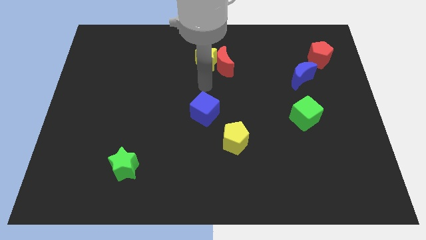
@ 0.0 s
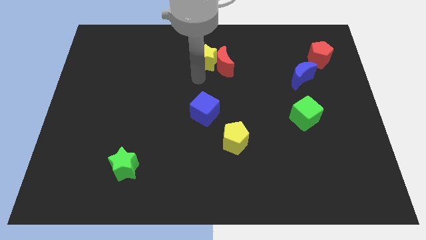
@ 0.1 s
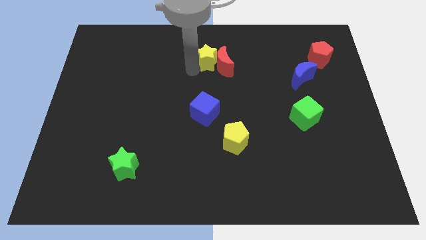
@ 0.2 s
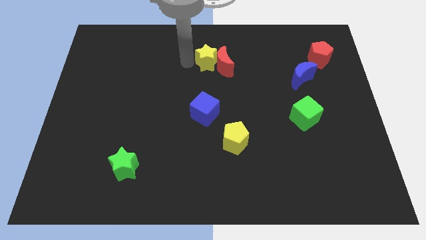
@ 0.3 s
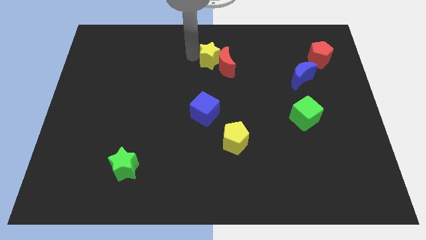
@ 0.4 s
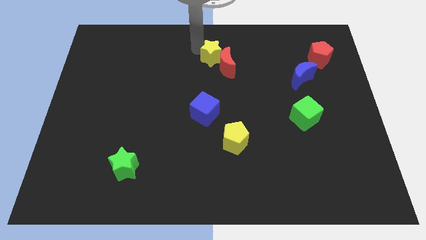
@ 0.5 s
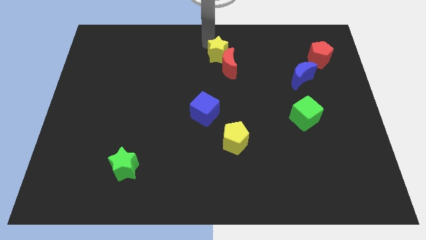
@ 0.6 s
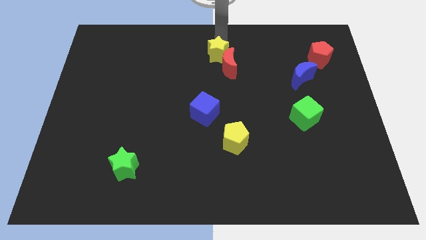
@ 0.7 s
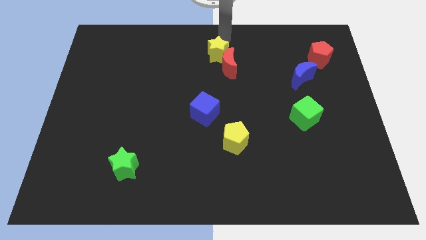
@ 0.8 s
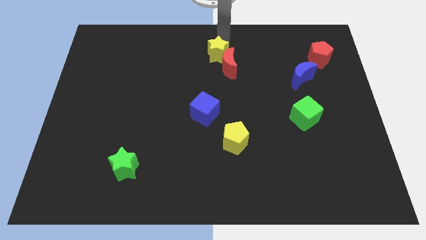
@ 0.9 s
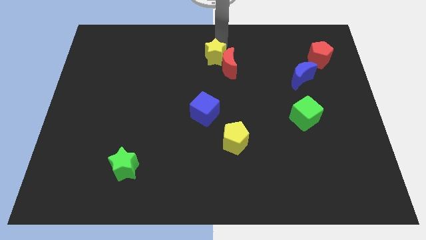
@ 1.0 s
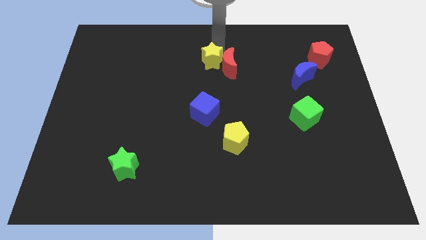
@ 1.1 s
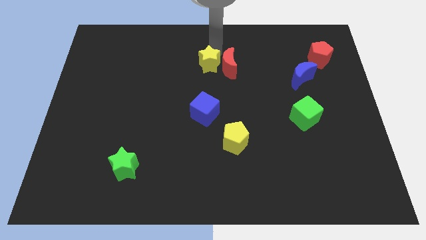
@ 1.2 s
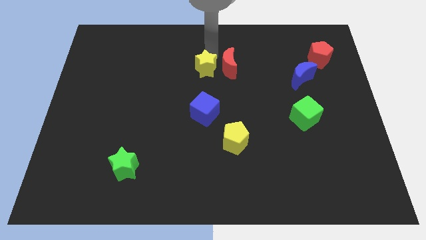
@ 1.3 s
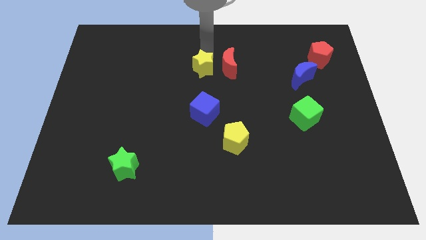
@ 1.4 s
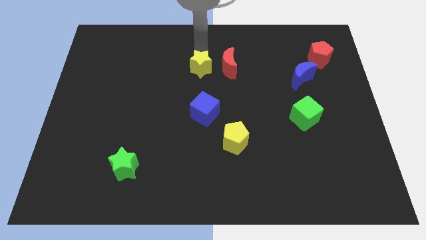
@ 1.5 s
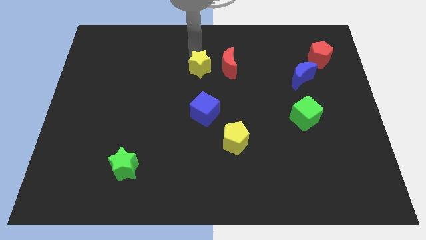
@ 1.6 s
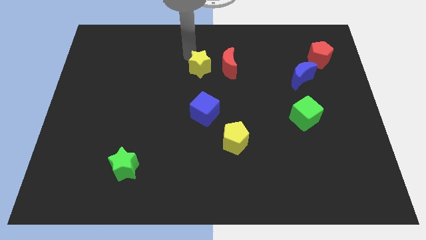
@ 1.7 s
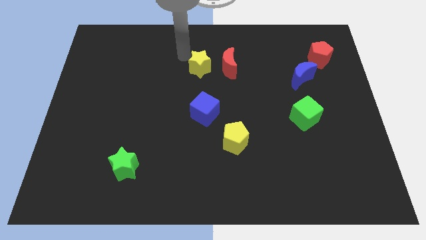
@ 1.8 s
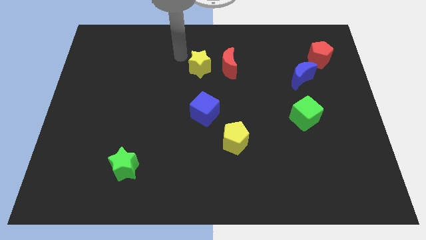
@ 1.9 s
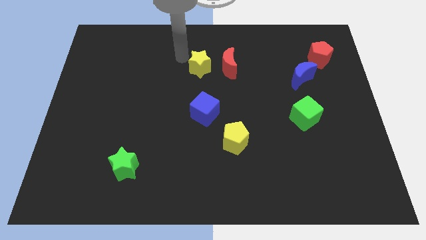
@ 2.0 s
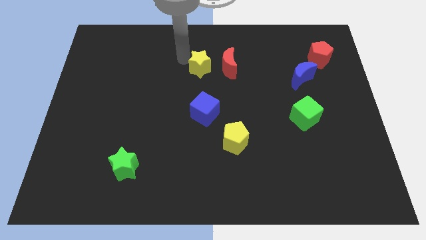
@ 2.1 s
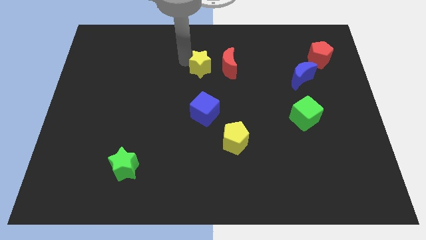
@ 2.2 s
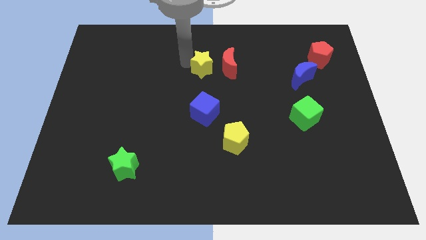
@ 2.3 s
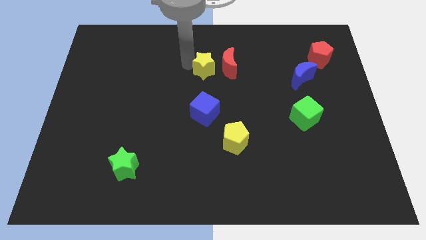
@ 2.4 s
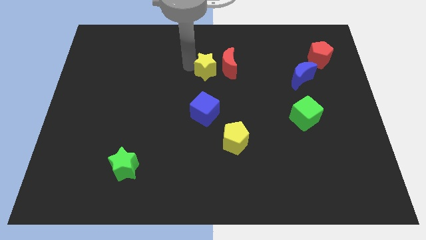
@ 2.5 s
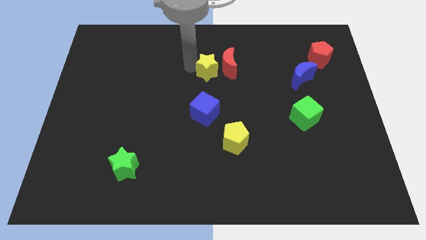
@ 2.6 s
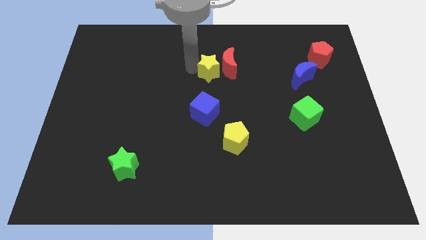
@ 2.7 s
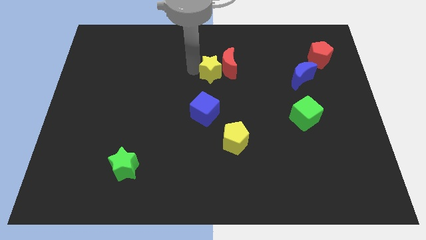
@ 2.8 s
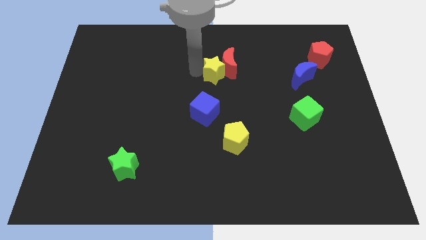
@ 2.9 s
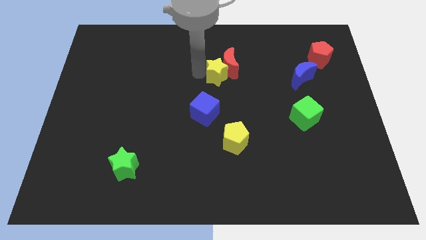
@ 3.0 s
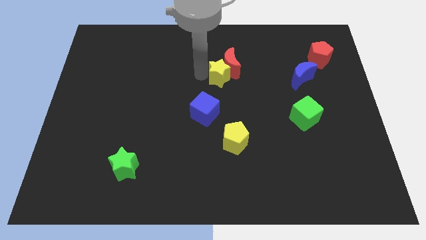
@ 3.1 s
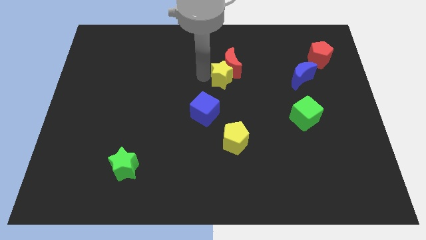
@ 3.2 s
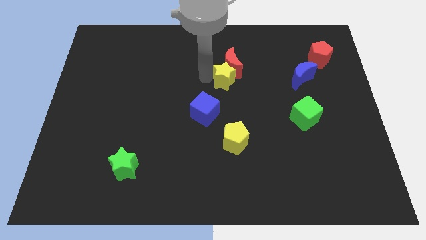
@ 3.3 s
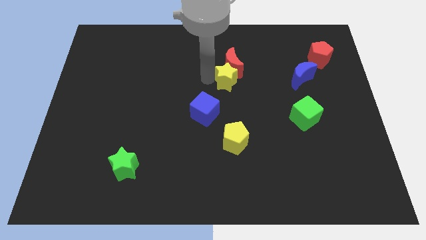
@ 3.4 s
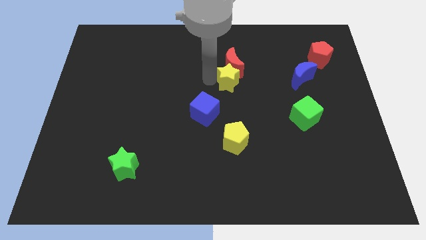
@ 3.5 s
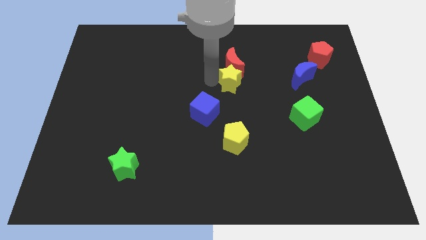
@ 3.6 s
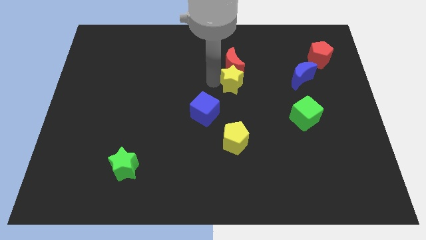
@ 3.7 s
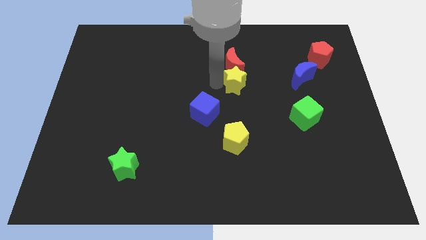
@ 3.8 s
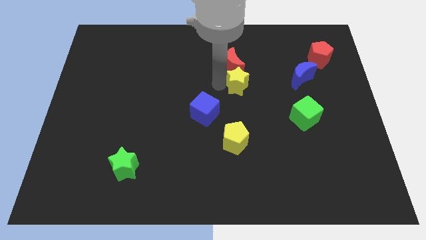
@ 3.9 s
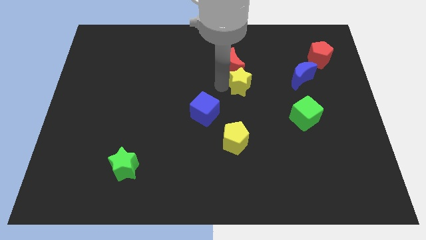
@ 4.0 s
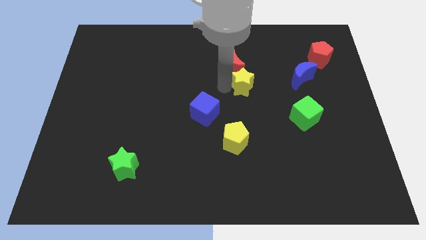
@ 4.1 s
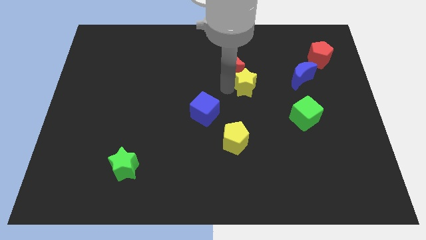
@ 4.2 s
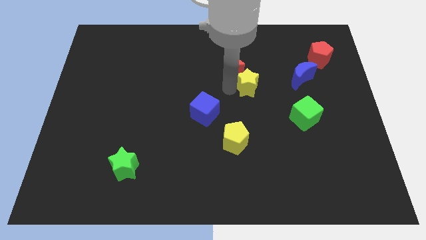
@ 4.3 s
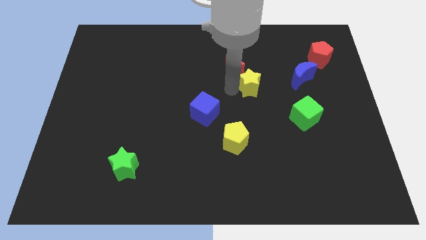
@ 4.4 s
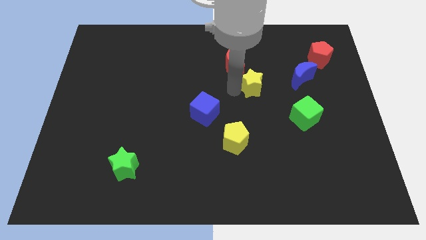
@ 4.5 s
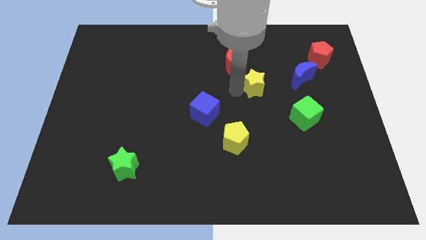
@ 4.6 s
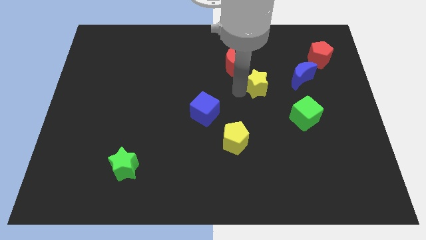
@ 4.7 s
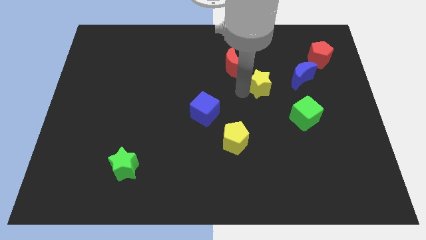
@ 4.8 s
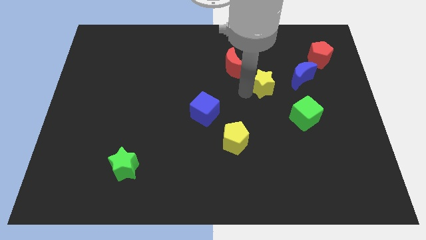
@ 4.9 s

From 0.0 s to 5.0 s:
put the yellow star diagonally down and to the left of the blue moon

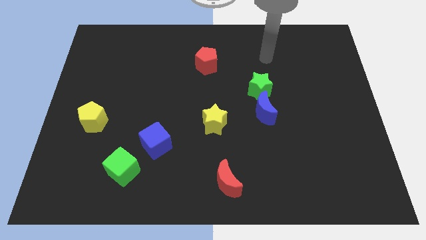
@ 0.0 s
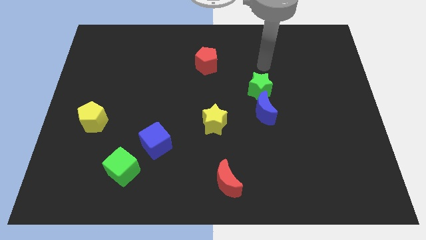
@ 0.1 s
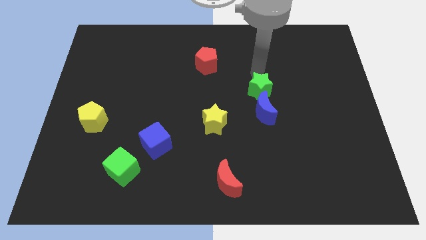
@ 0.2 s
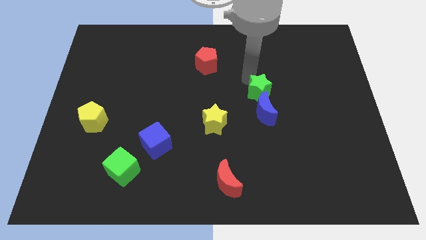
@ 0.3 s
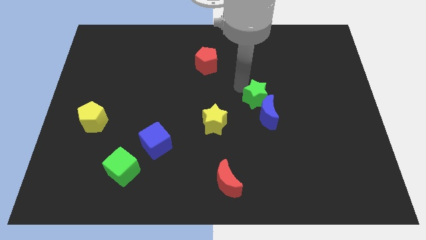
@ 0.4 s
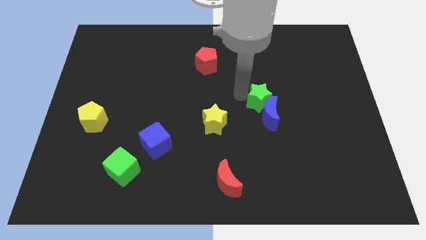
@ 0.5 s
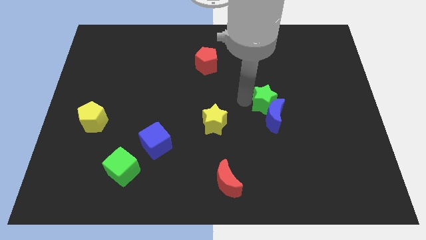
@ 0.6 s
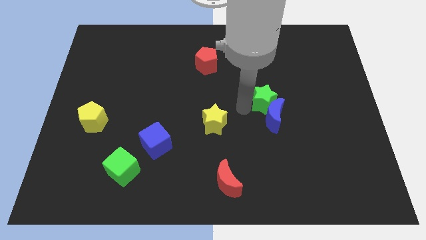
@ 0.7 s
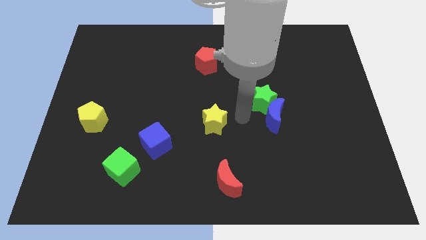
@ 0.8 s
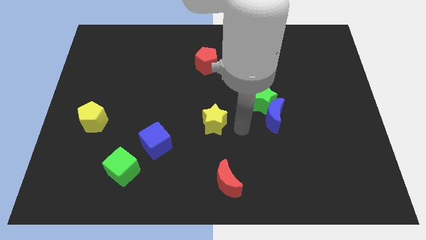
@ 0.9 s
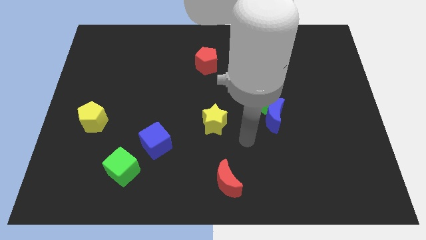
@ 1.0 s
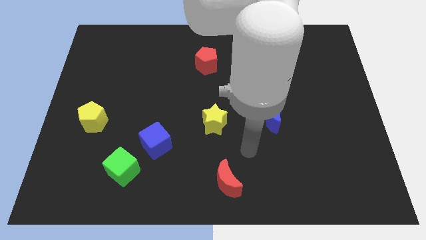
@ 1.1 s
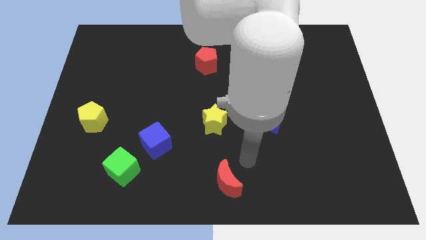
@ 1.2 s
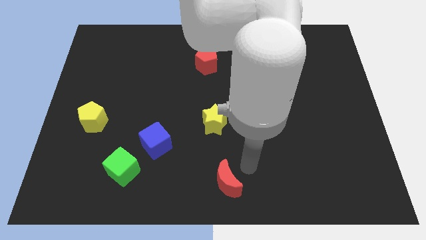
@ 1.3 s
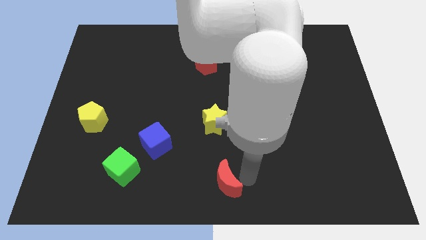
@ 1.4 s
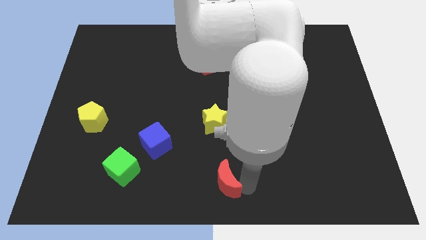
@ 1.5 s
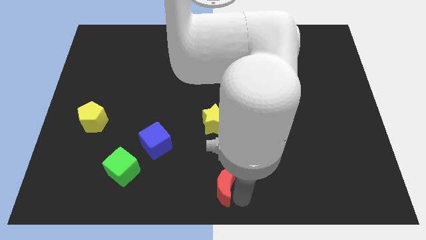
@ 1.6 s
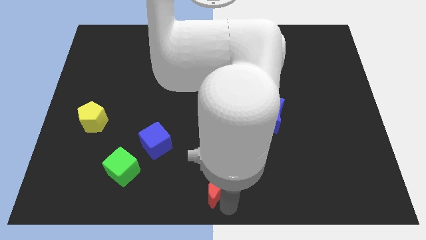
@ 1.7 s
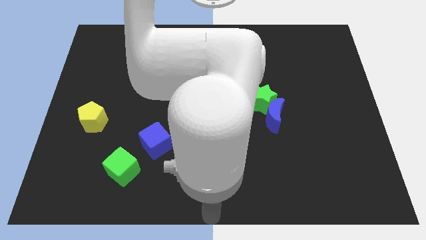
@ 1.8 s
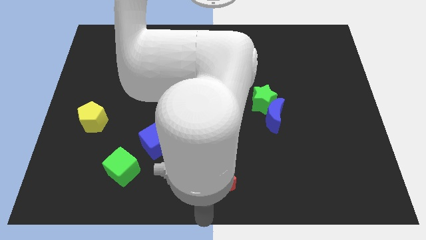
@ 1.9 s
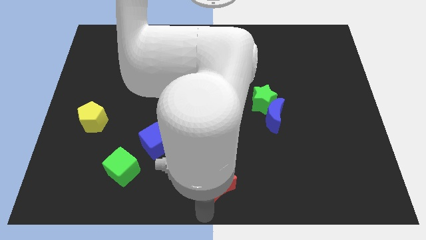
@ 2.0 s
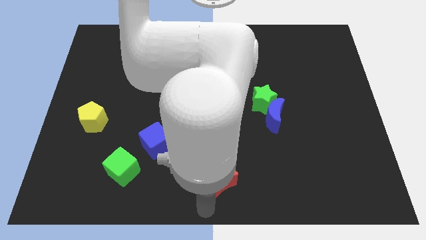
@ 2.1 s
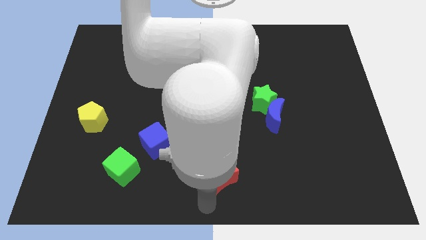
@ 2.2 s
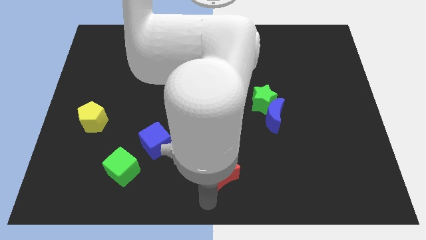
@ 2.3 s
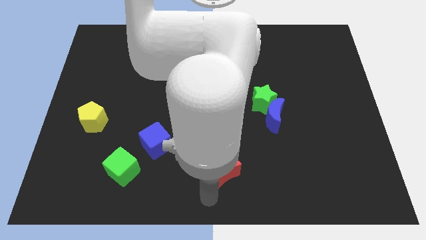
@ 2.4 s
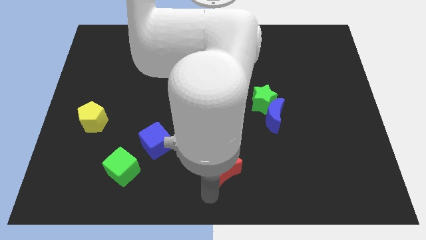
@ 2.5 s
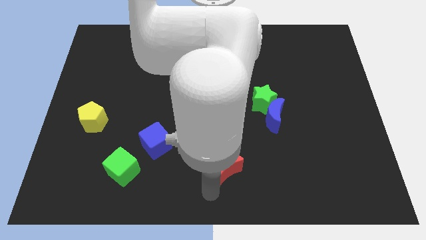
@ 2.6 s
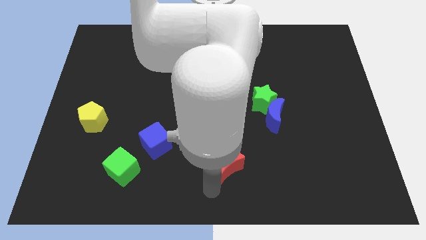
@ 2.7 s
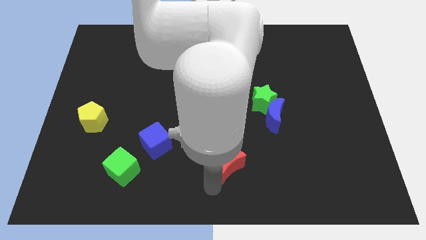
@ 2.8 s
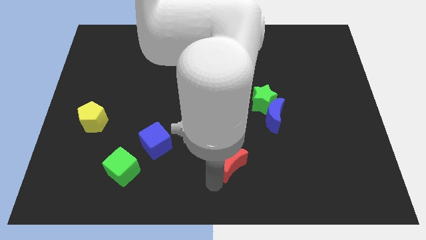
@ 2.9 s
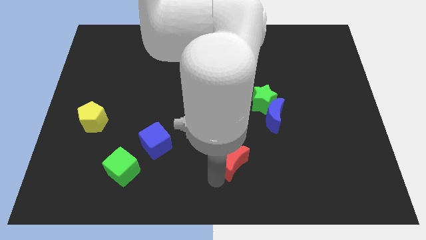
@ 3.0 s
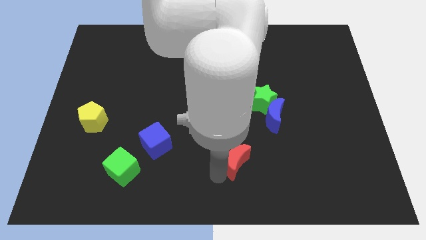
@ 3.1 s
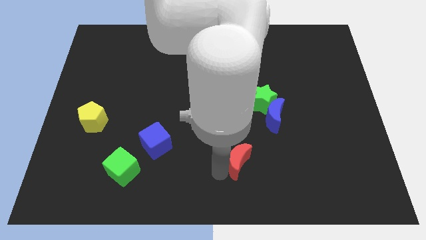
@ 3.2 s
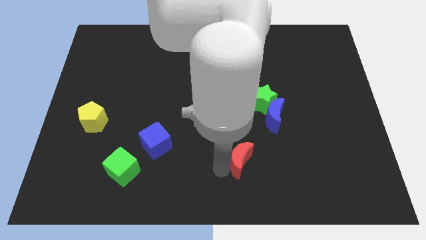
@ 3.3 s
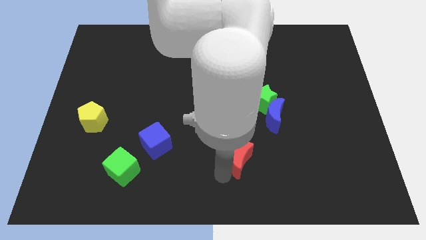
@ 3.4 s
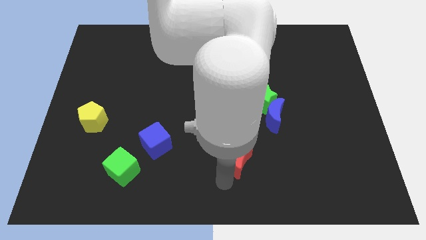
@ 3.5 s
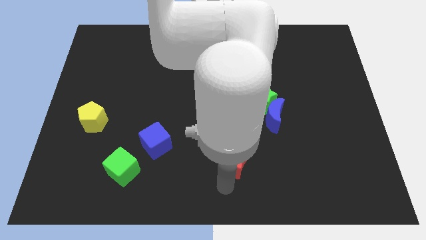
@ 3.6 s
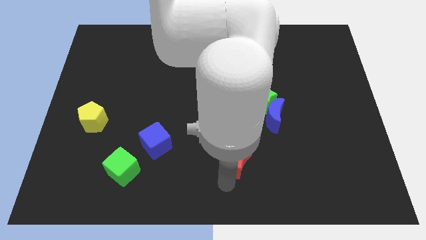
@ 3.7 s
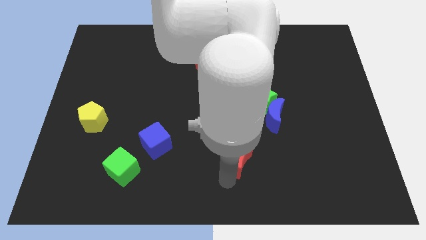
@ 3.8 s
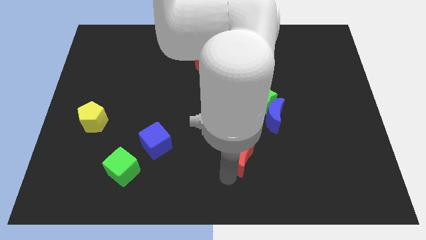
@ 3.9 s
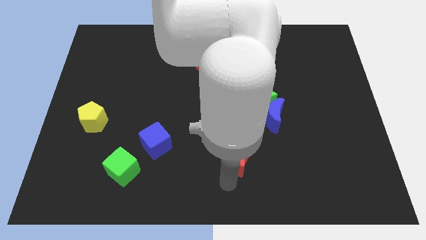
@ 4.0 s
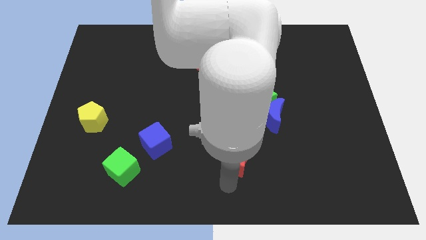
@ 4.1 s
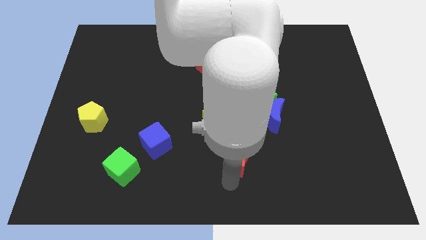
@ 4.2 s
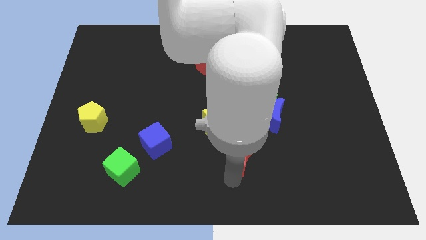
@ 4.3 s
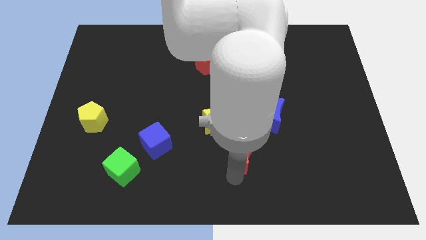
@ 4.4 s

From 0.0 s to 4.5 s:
push the red moon to the bottom left of the blue moon
